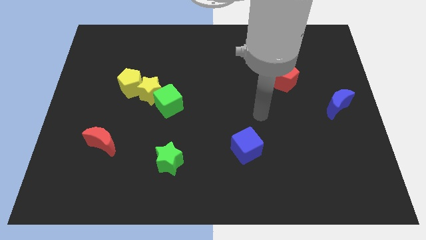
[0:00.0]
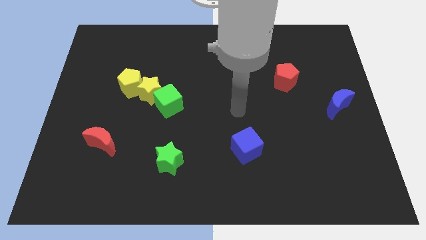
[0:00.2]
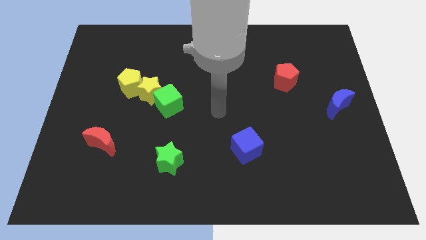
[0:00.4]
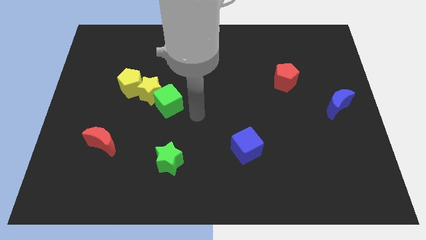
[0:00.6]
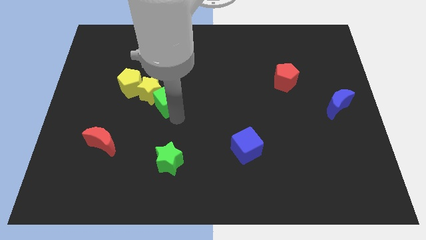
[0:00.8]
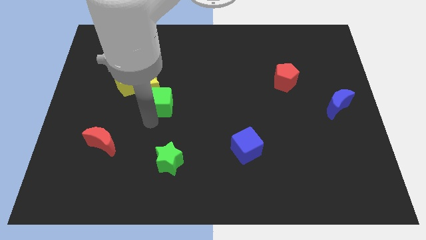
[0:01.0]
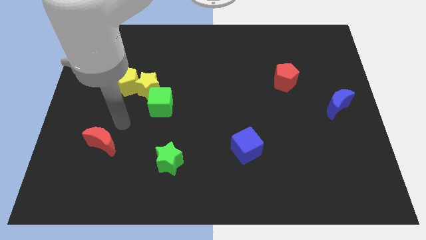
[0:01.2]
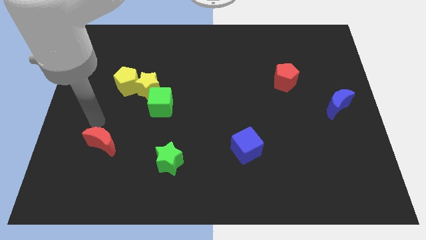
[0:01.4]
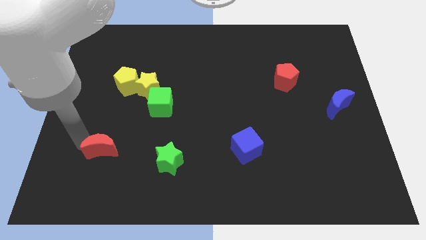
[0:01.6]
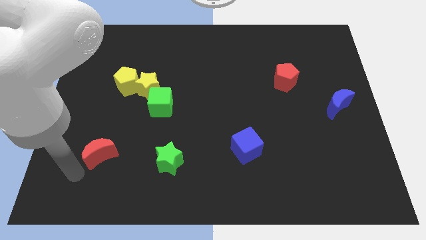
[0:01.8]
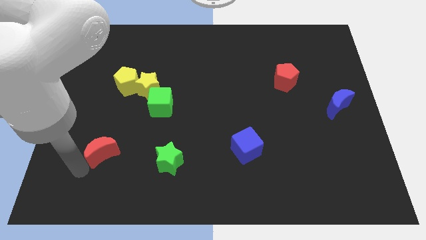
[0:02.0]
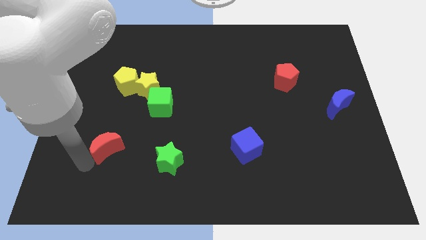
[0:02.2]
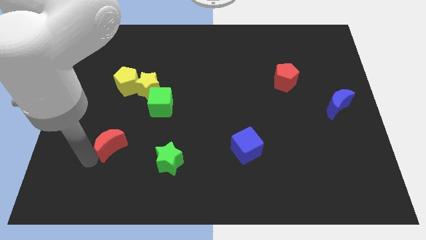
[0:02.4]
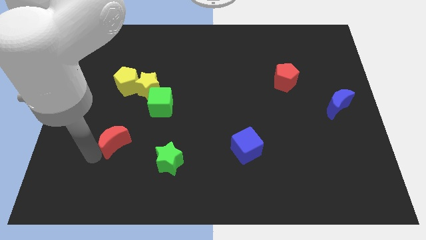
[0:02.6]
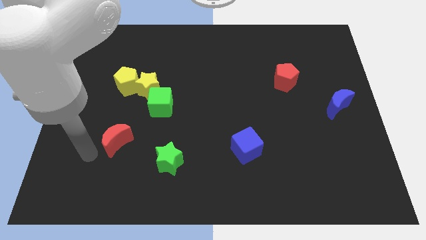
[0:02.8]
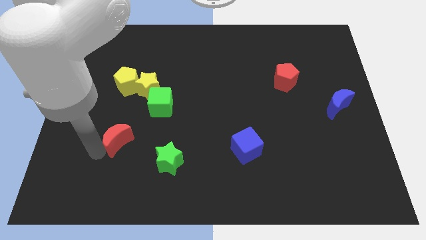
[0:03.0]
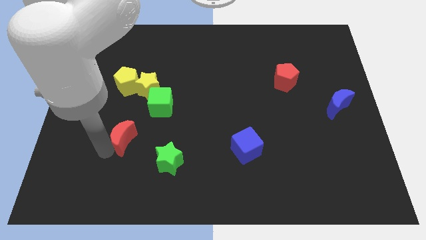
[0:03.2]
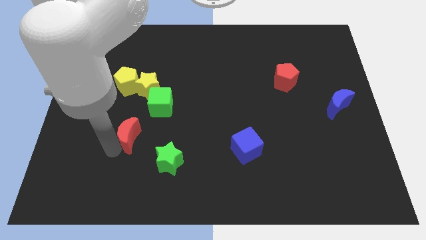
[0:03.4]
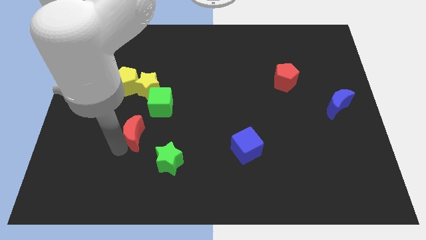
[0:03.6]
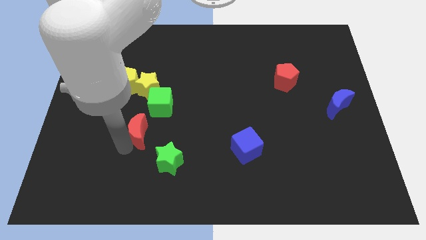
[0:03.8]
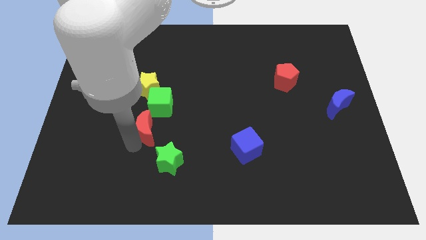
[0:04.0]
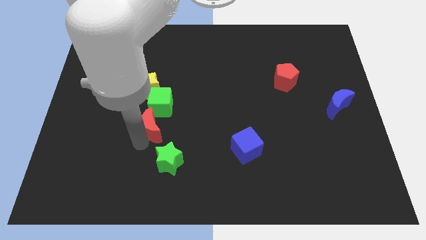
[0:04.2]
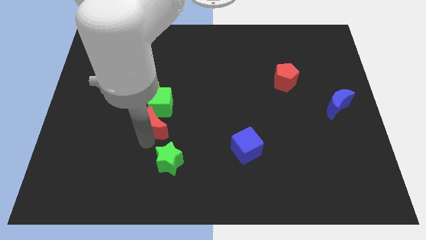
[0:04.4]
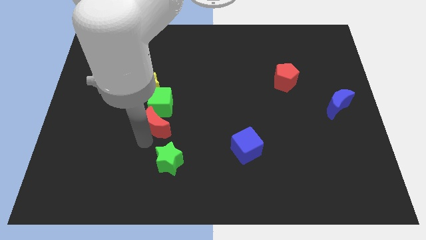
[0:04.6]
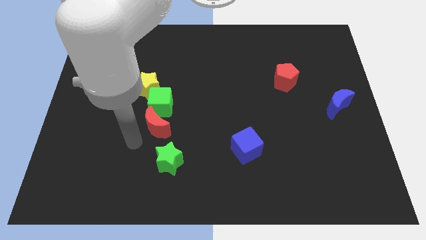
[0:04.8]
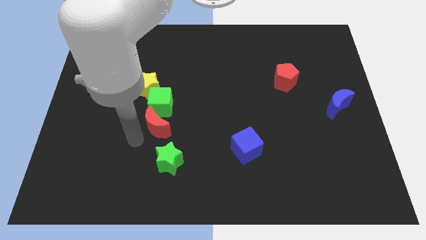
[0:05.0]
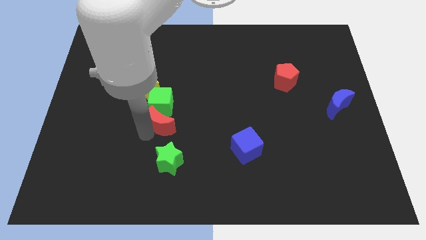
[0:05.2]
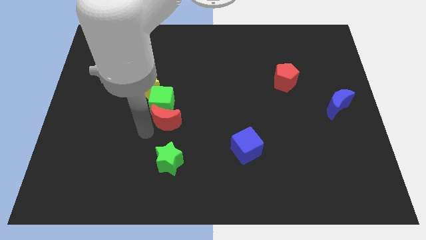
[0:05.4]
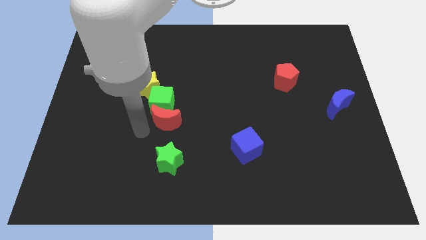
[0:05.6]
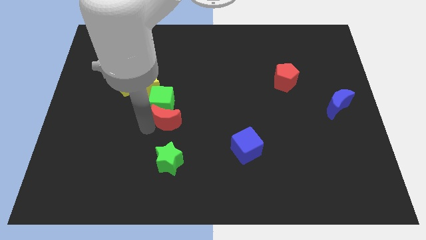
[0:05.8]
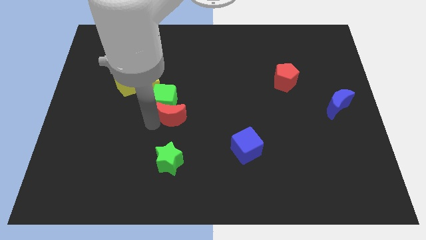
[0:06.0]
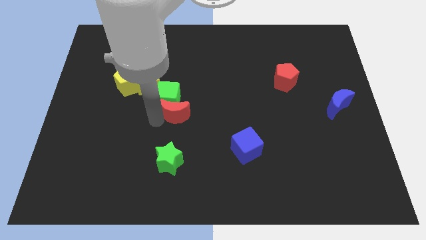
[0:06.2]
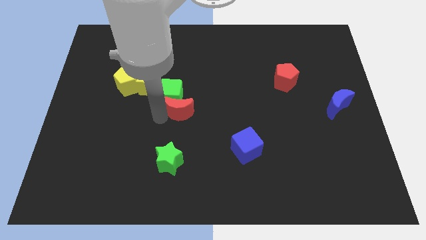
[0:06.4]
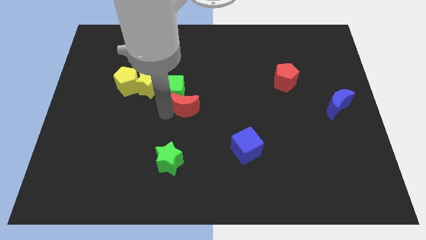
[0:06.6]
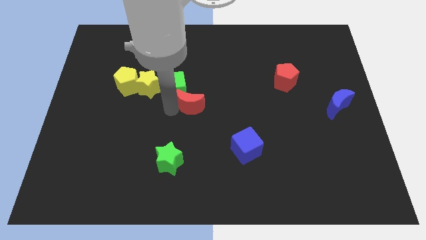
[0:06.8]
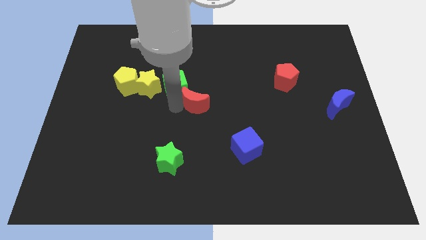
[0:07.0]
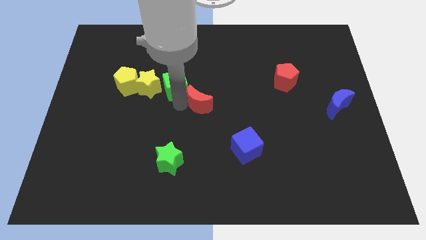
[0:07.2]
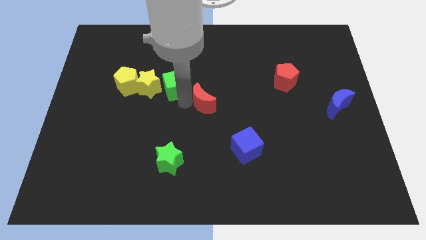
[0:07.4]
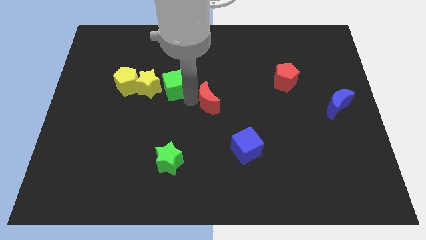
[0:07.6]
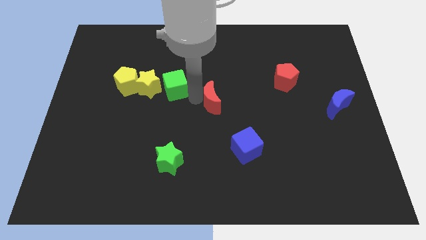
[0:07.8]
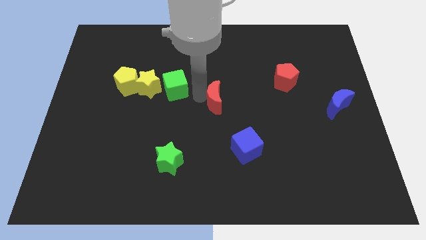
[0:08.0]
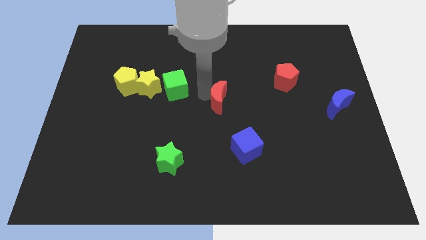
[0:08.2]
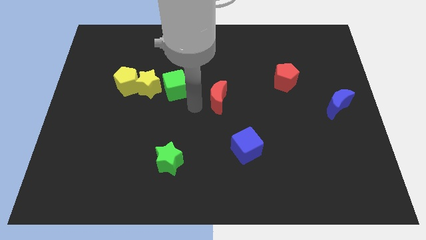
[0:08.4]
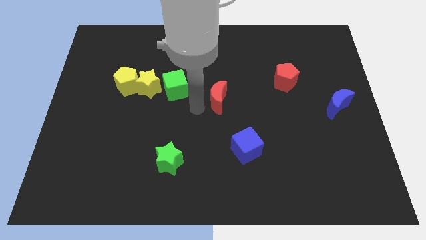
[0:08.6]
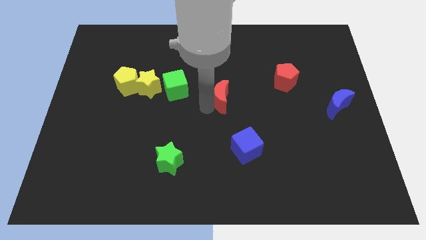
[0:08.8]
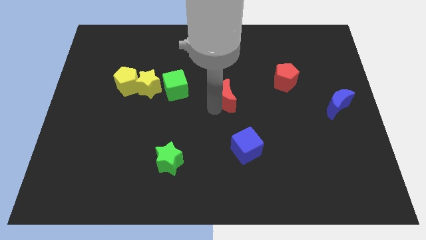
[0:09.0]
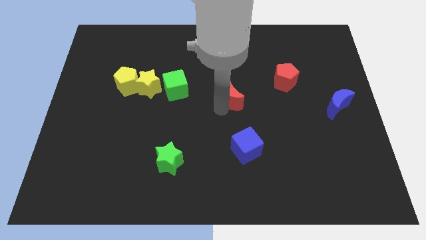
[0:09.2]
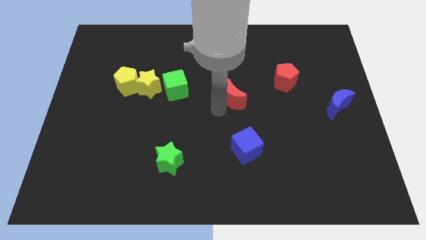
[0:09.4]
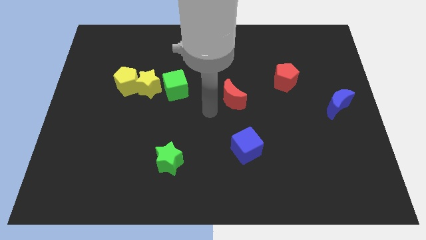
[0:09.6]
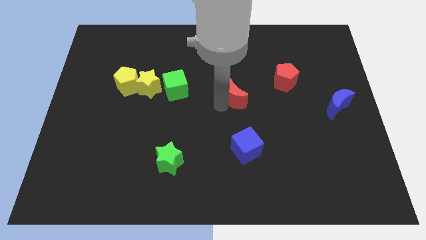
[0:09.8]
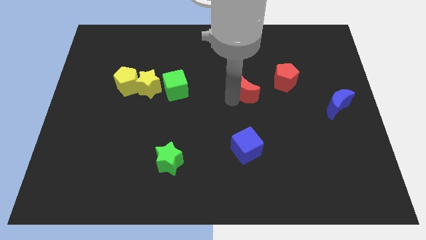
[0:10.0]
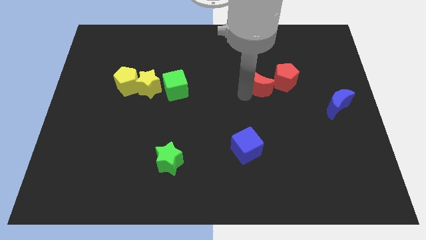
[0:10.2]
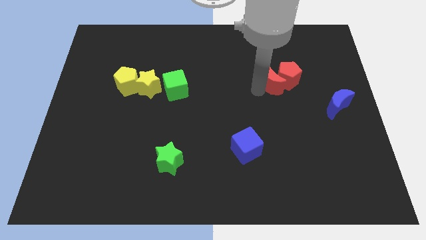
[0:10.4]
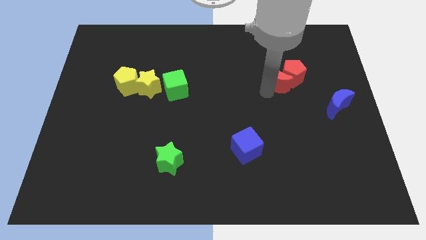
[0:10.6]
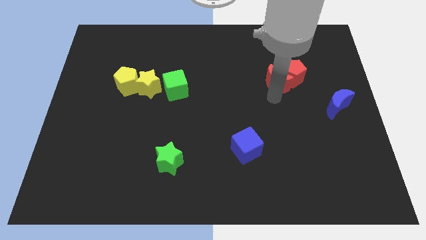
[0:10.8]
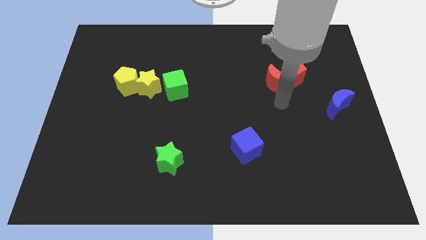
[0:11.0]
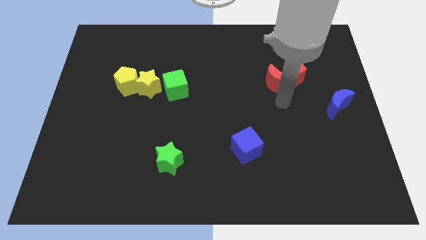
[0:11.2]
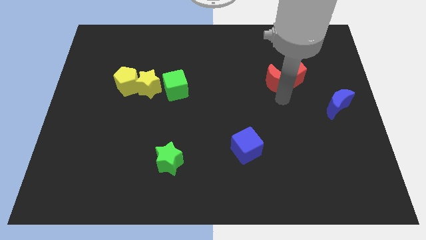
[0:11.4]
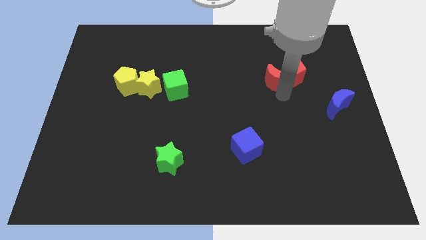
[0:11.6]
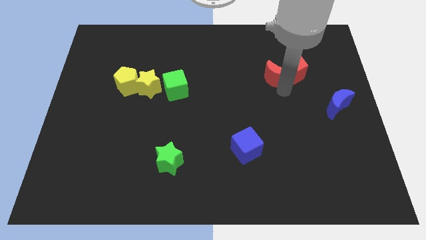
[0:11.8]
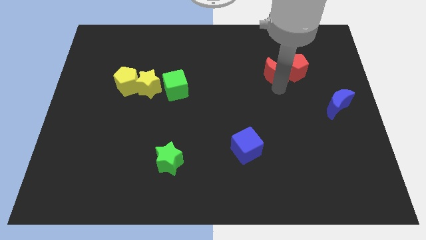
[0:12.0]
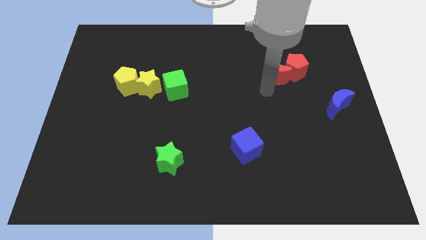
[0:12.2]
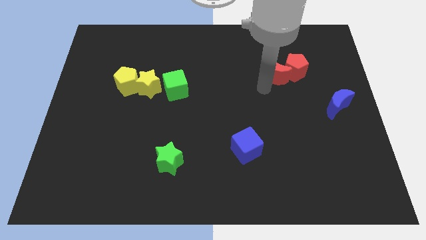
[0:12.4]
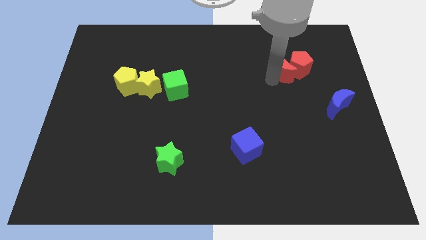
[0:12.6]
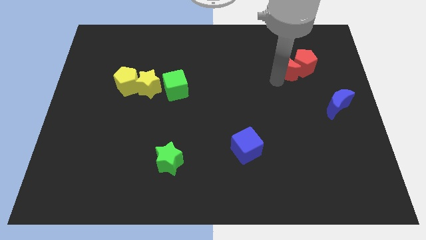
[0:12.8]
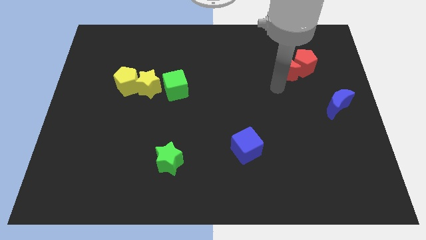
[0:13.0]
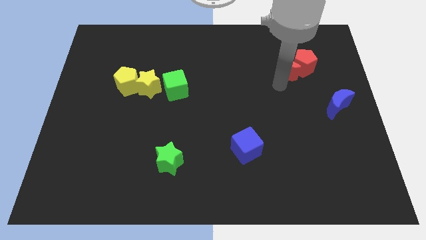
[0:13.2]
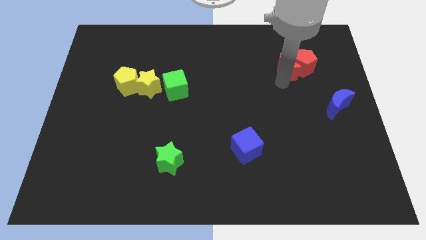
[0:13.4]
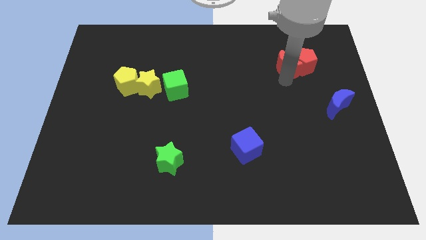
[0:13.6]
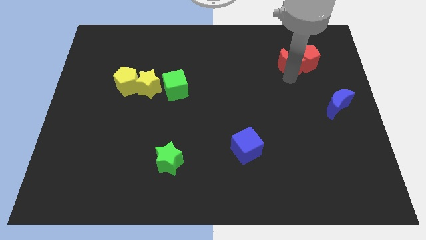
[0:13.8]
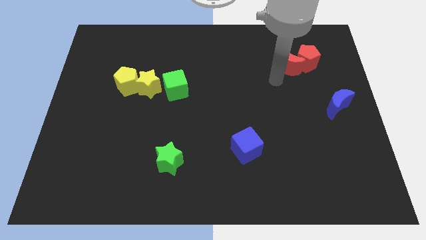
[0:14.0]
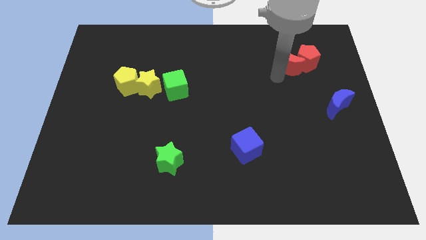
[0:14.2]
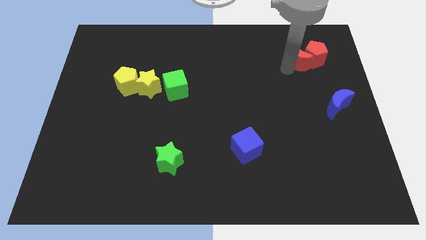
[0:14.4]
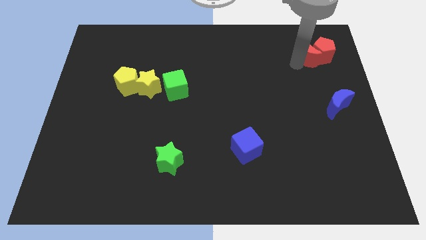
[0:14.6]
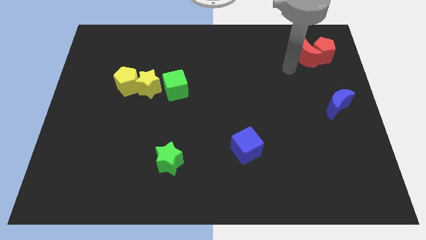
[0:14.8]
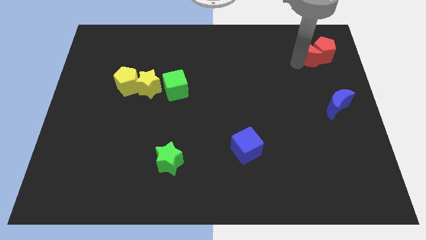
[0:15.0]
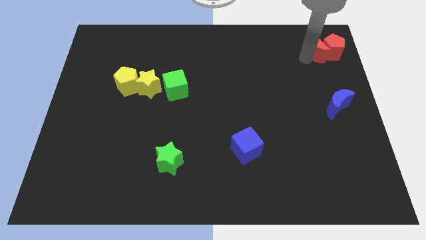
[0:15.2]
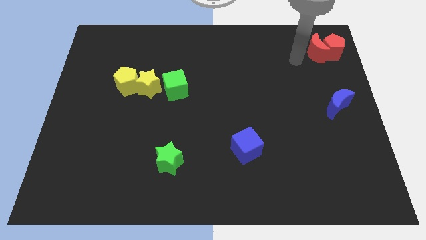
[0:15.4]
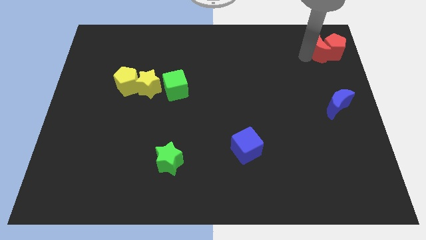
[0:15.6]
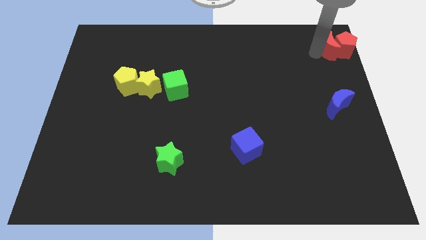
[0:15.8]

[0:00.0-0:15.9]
move the red moon to the top right
